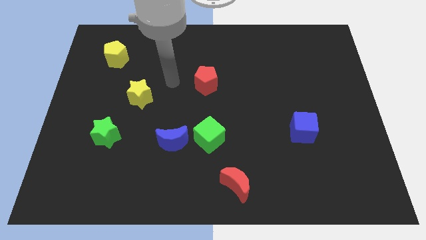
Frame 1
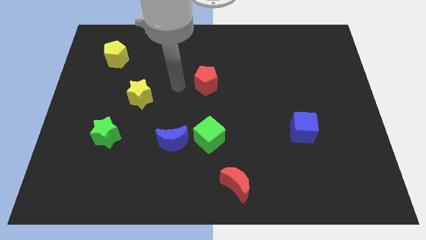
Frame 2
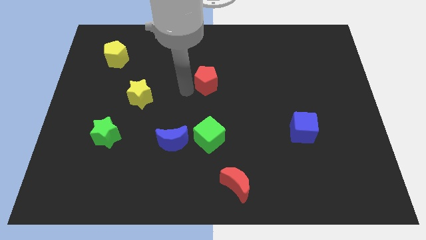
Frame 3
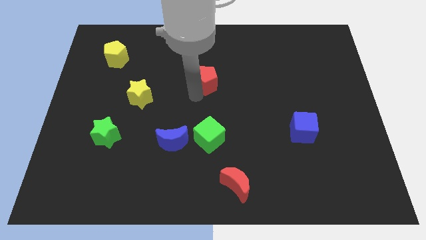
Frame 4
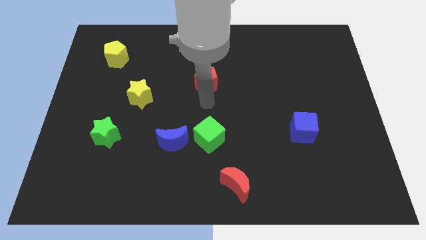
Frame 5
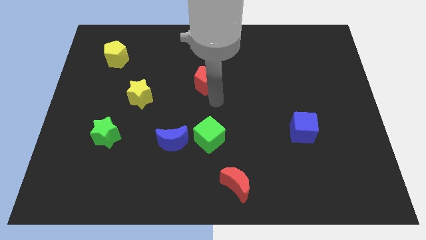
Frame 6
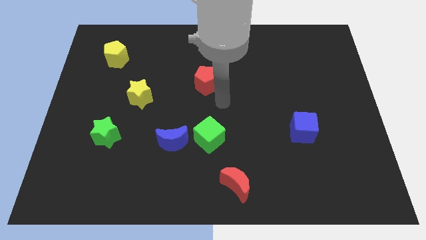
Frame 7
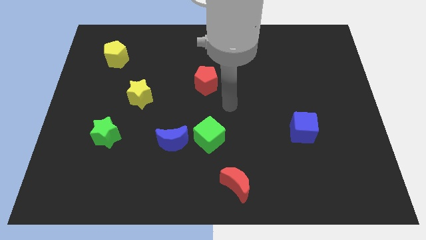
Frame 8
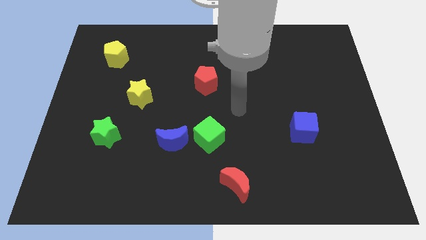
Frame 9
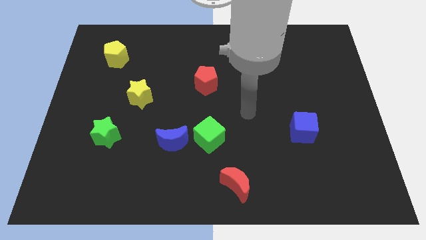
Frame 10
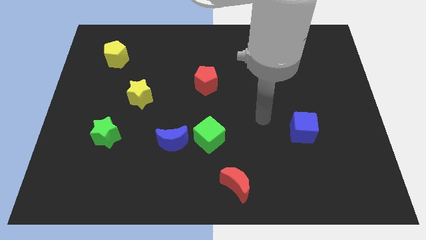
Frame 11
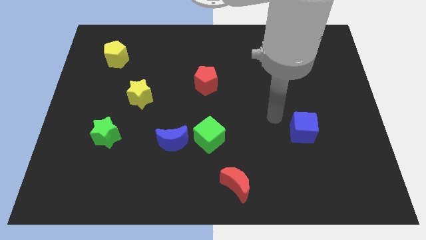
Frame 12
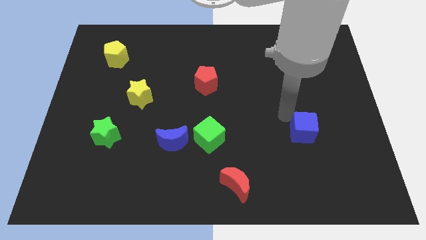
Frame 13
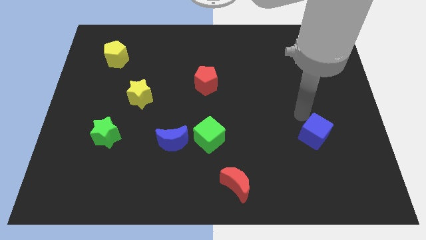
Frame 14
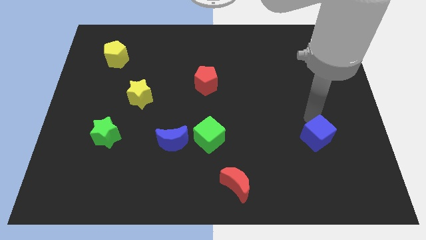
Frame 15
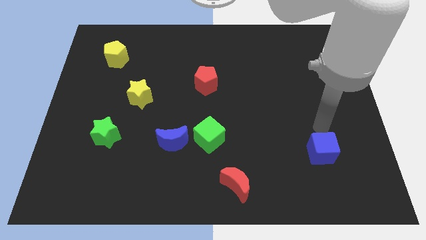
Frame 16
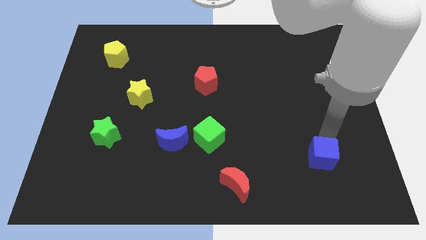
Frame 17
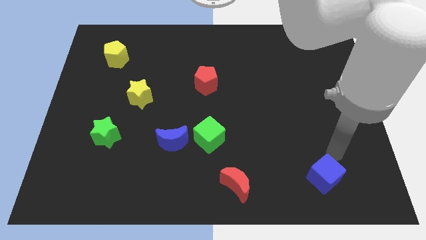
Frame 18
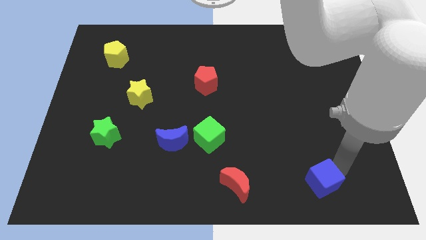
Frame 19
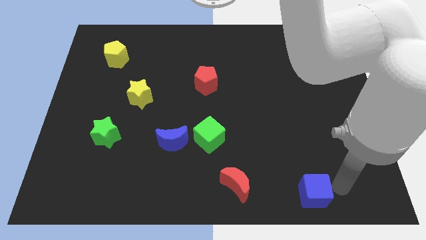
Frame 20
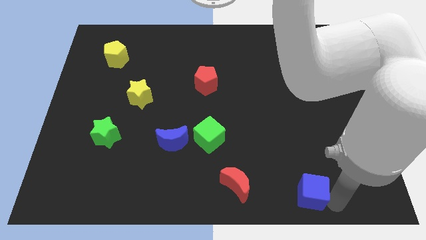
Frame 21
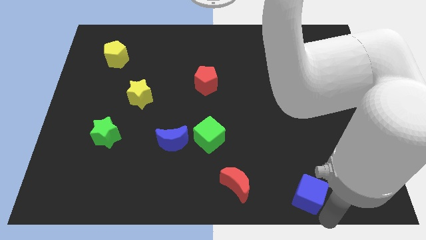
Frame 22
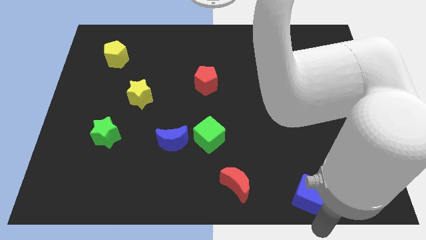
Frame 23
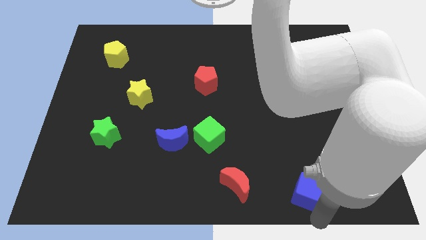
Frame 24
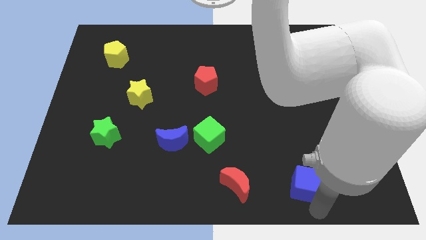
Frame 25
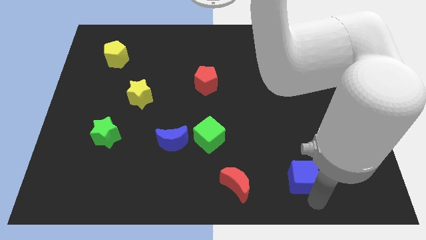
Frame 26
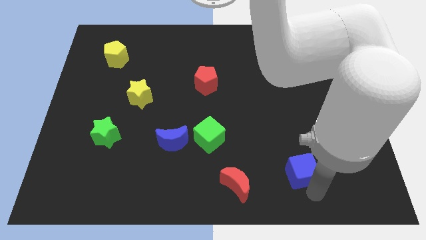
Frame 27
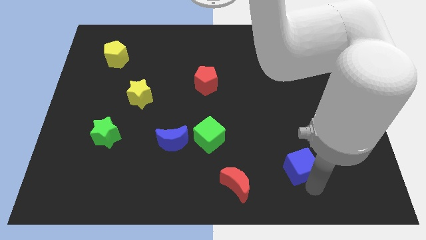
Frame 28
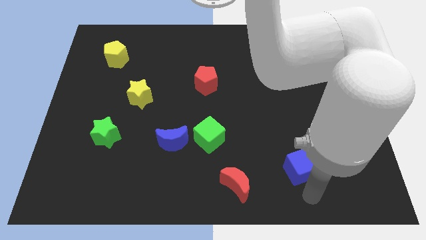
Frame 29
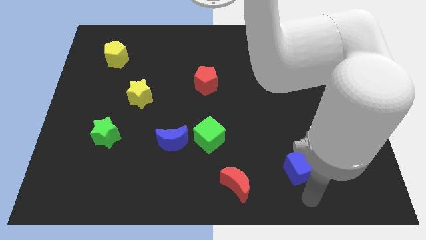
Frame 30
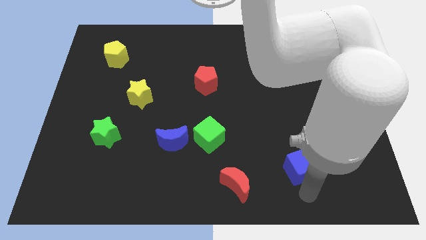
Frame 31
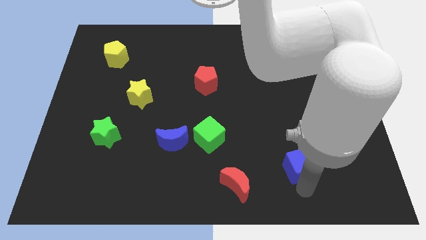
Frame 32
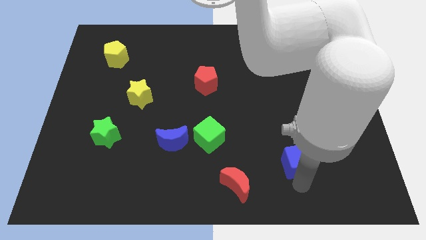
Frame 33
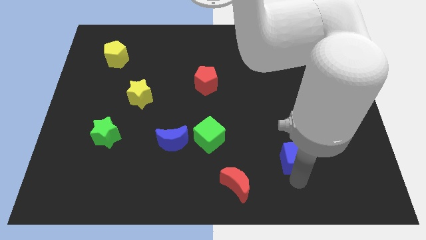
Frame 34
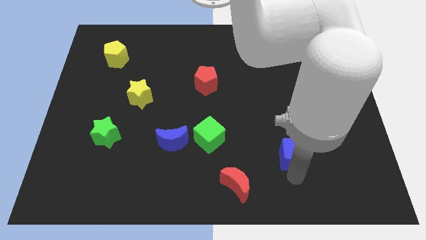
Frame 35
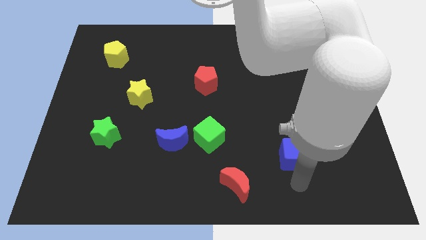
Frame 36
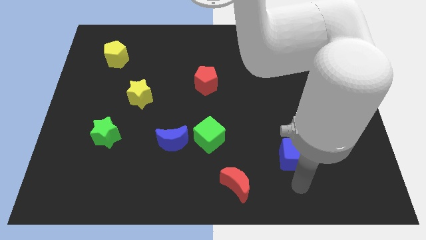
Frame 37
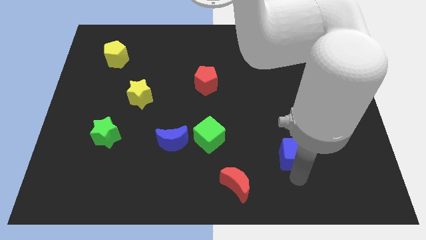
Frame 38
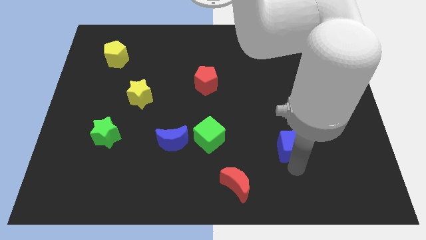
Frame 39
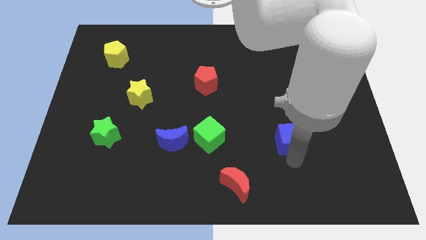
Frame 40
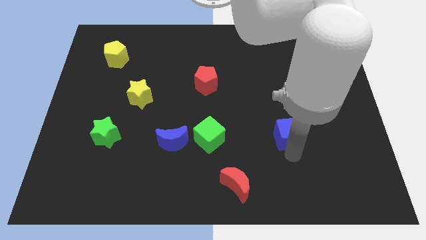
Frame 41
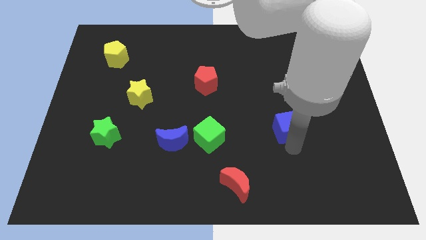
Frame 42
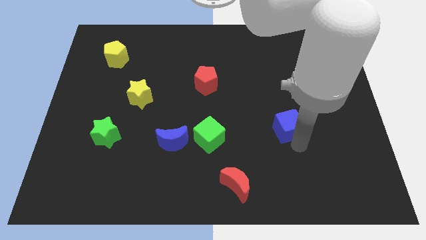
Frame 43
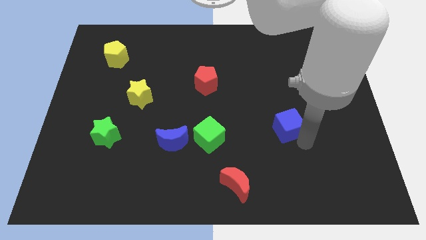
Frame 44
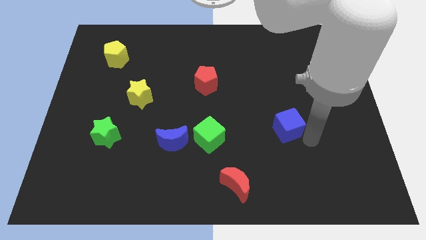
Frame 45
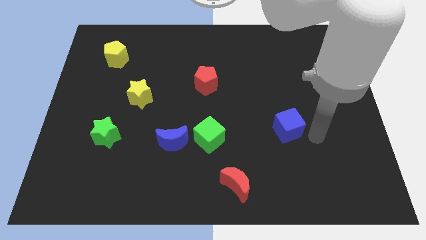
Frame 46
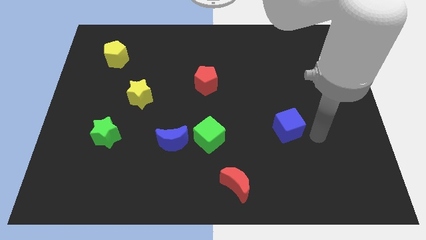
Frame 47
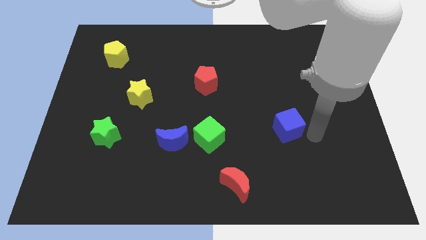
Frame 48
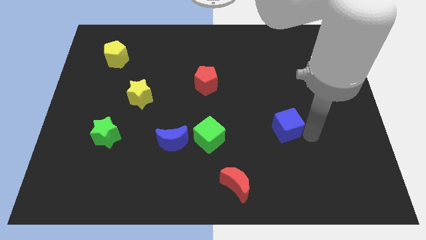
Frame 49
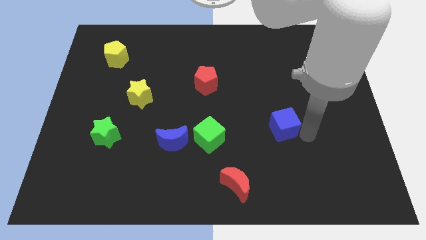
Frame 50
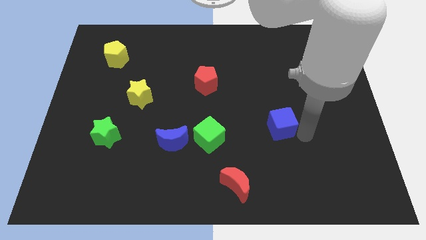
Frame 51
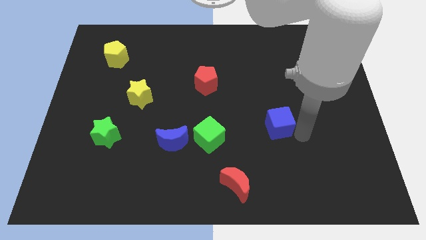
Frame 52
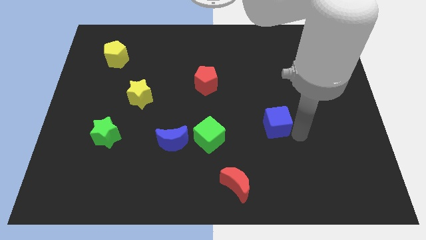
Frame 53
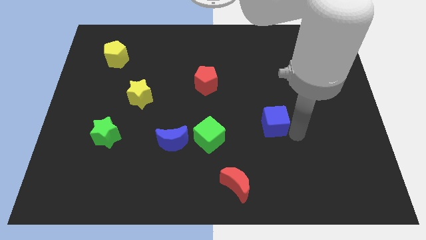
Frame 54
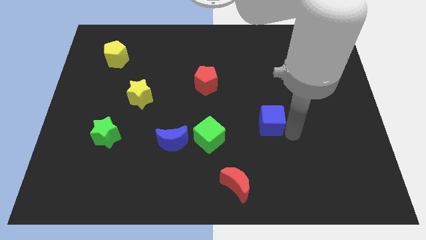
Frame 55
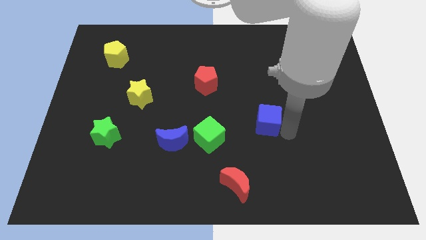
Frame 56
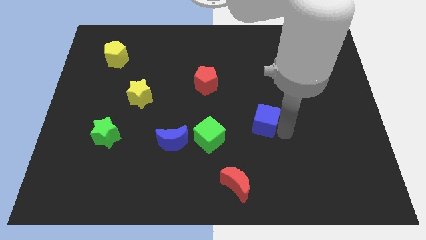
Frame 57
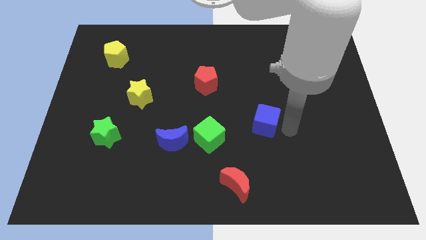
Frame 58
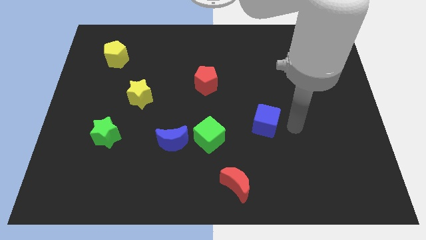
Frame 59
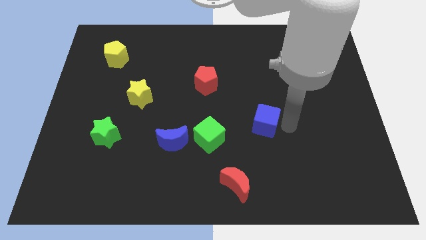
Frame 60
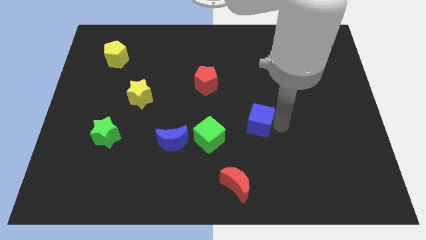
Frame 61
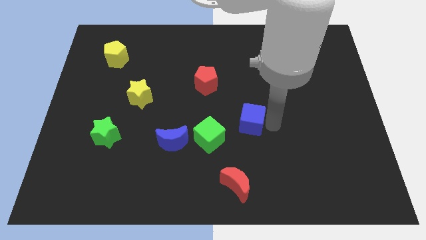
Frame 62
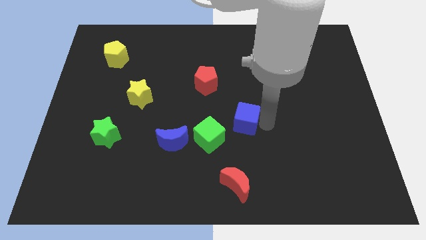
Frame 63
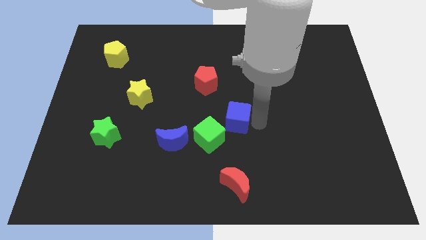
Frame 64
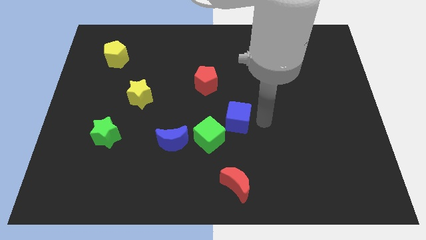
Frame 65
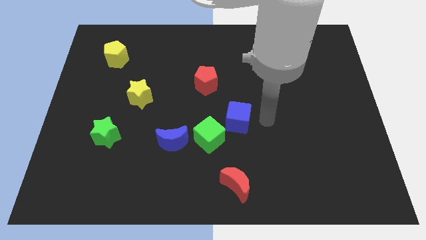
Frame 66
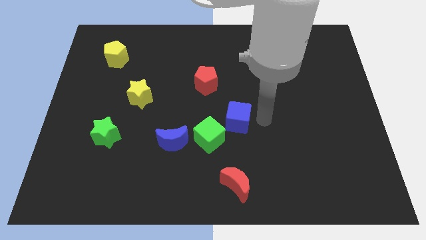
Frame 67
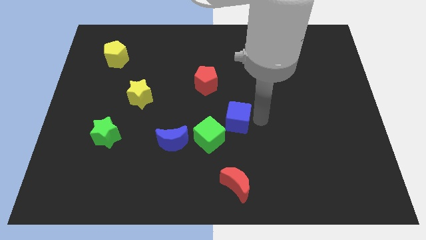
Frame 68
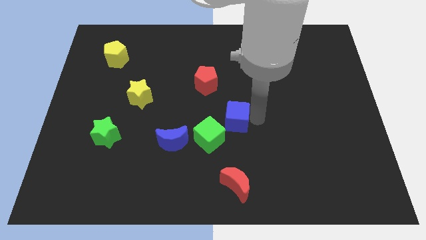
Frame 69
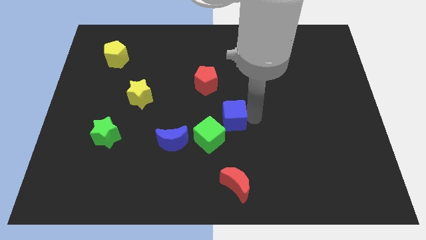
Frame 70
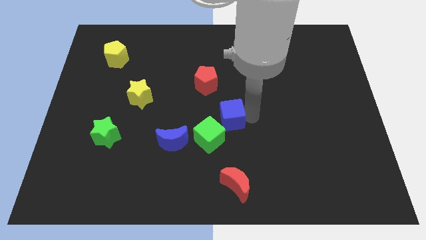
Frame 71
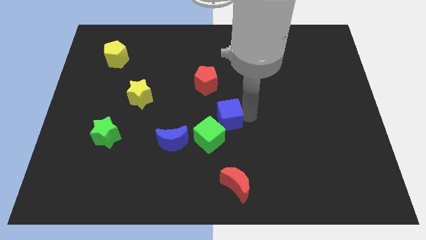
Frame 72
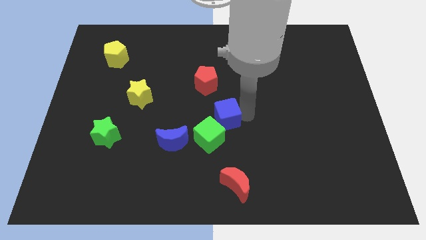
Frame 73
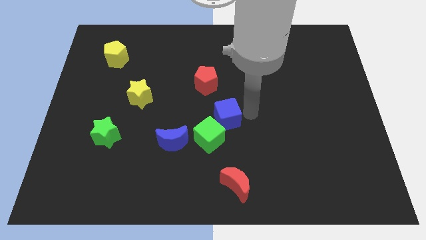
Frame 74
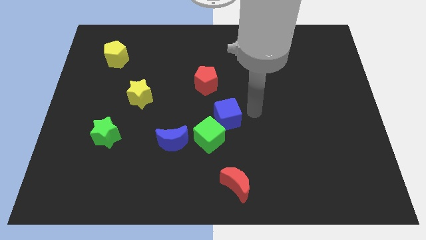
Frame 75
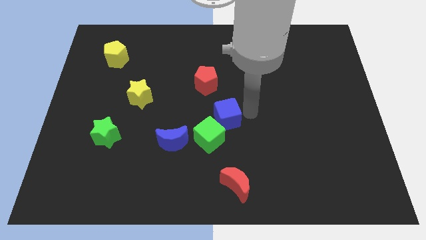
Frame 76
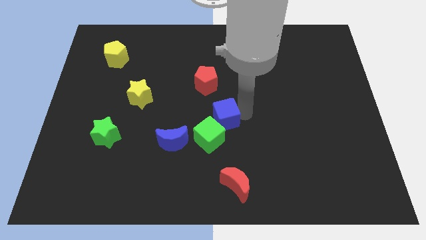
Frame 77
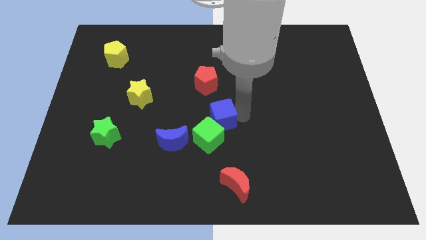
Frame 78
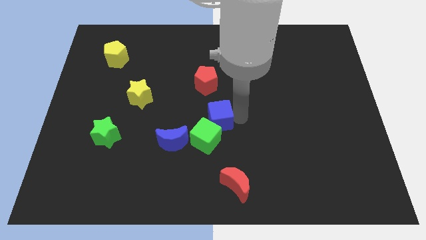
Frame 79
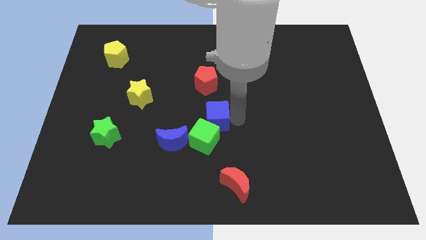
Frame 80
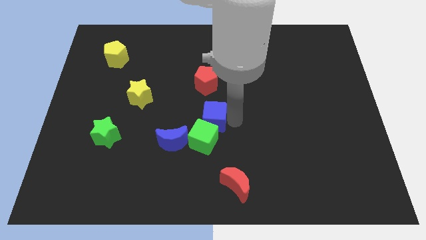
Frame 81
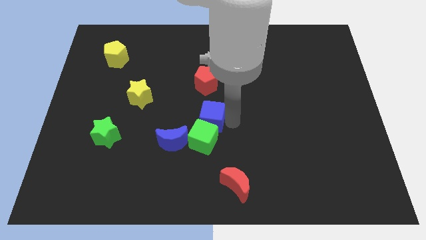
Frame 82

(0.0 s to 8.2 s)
slide the blue cube left
